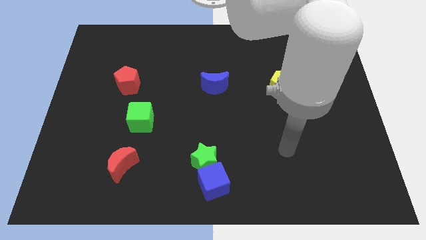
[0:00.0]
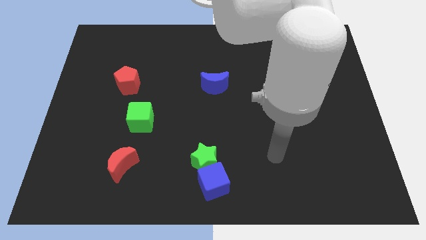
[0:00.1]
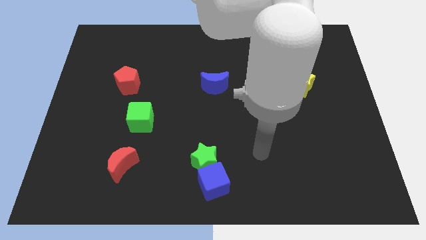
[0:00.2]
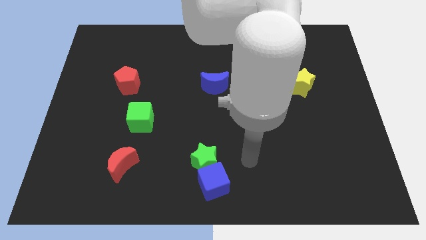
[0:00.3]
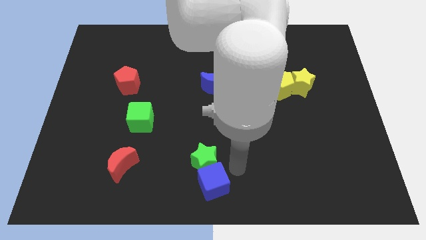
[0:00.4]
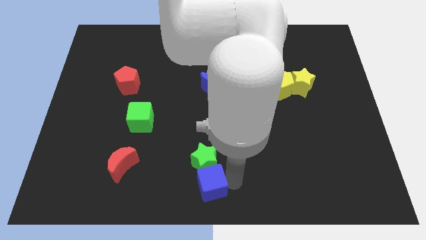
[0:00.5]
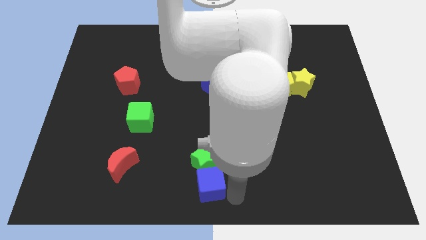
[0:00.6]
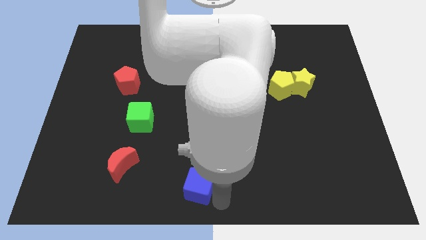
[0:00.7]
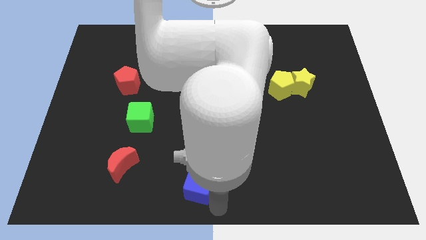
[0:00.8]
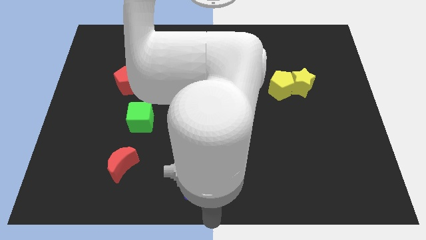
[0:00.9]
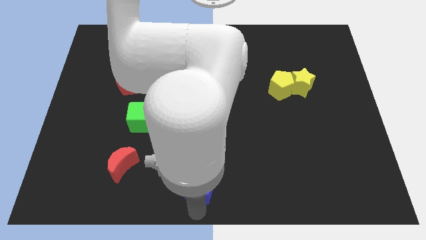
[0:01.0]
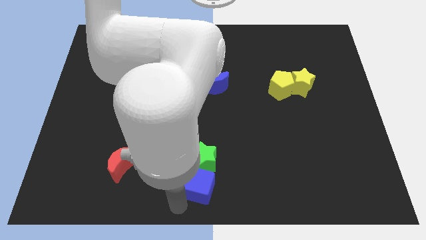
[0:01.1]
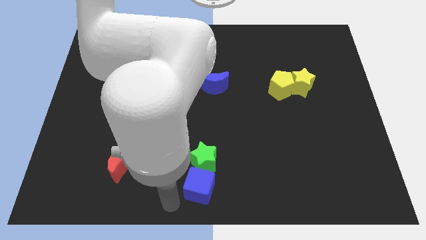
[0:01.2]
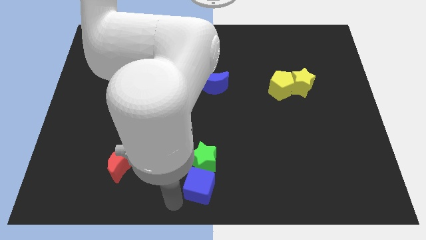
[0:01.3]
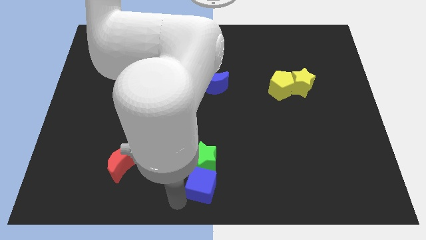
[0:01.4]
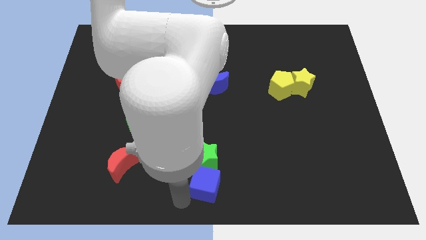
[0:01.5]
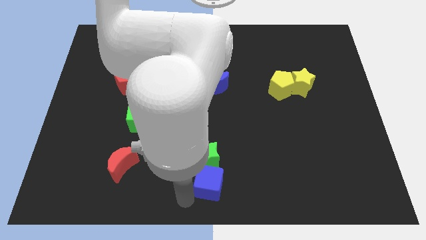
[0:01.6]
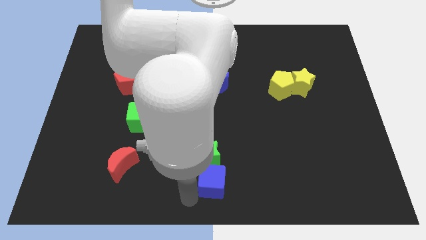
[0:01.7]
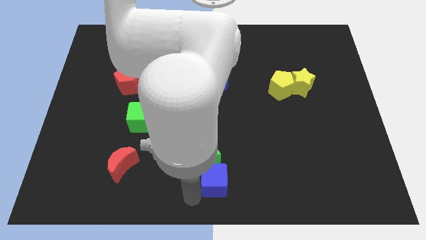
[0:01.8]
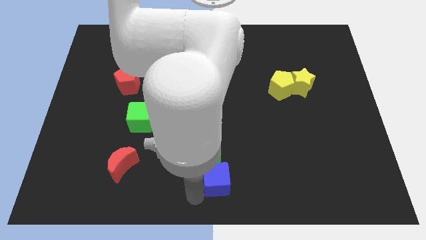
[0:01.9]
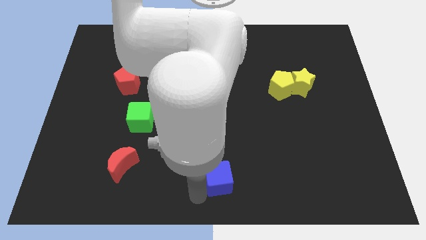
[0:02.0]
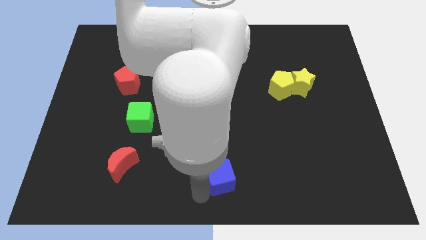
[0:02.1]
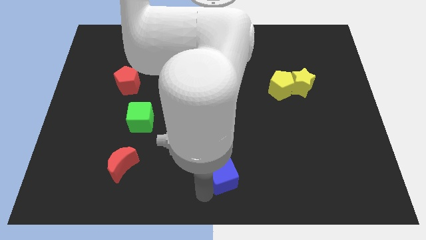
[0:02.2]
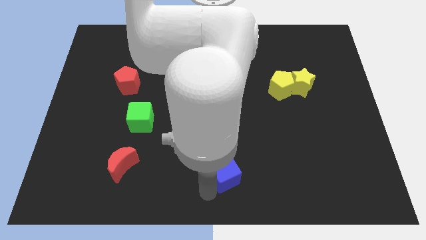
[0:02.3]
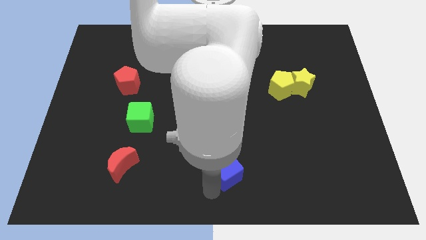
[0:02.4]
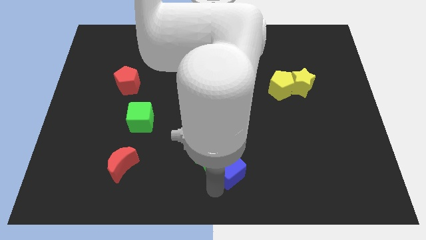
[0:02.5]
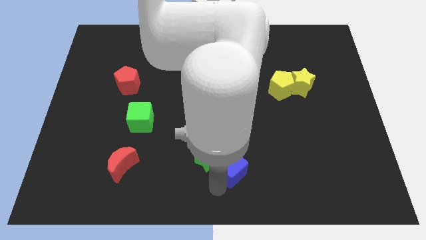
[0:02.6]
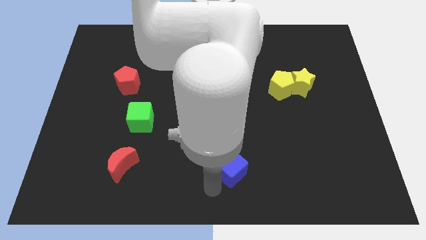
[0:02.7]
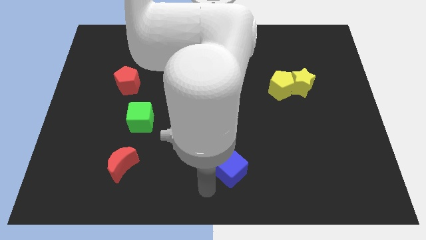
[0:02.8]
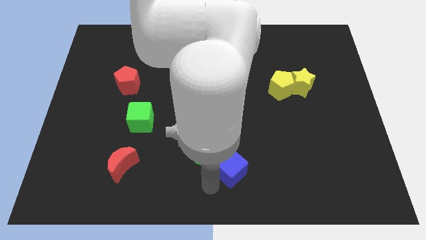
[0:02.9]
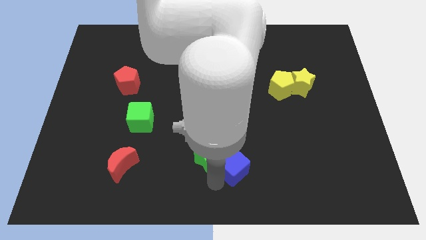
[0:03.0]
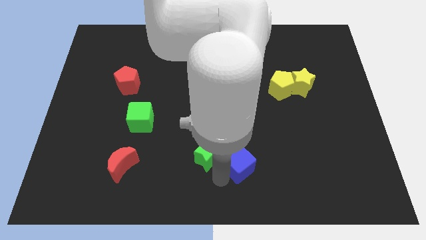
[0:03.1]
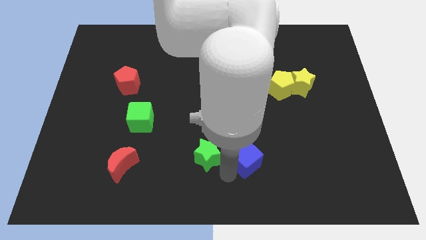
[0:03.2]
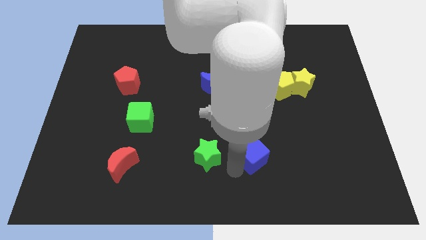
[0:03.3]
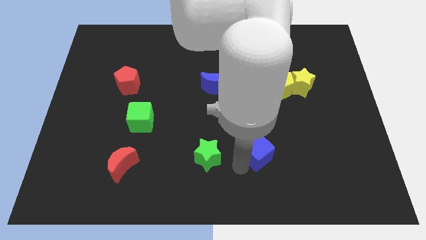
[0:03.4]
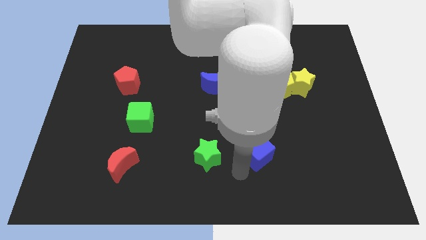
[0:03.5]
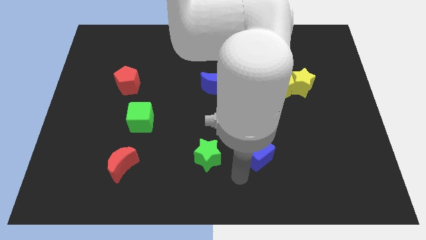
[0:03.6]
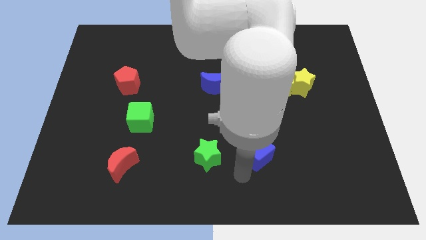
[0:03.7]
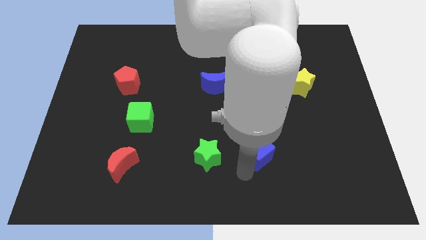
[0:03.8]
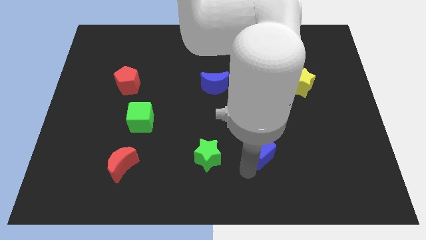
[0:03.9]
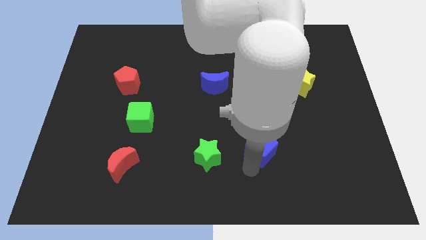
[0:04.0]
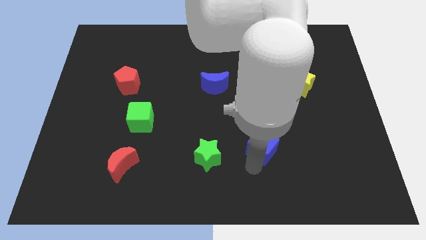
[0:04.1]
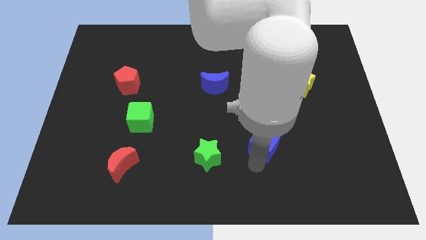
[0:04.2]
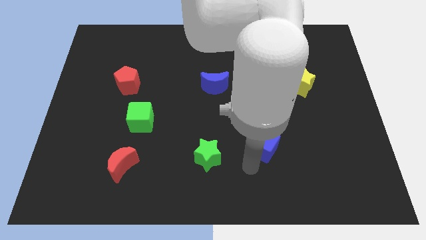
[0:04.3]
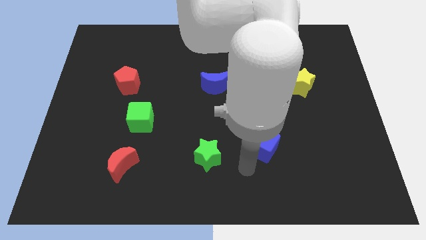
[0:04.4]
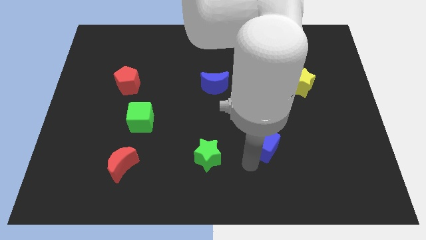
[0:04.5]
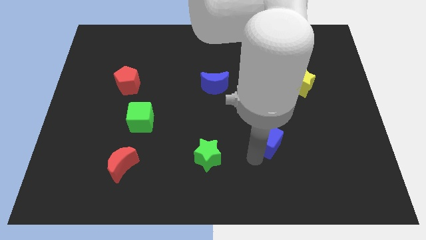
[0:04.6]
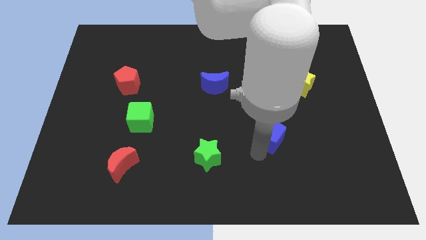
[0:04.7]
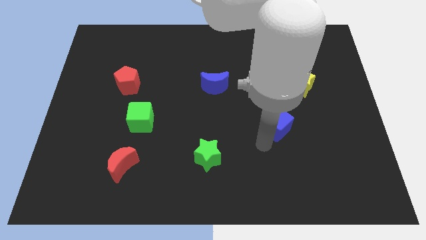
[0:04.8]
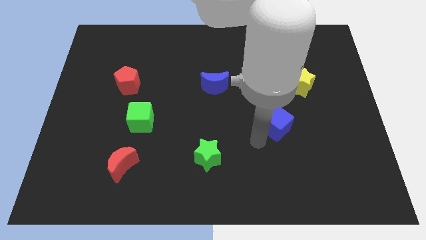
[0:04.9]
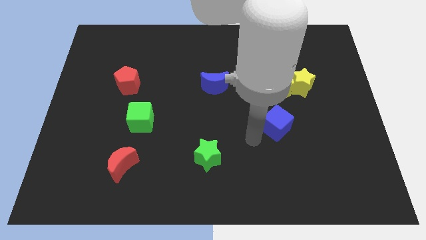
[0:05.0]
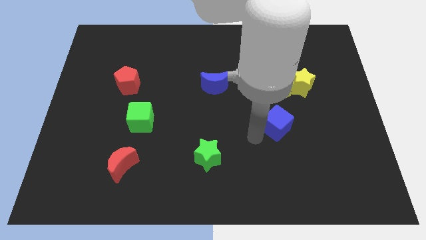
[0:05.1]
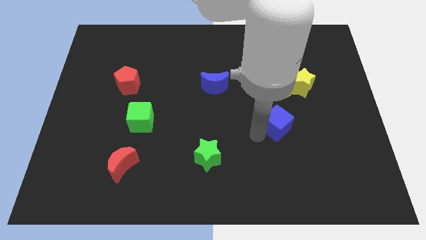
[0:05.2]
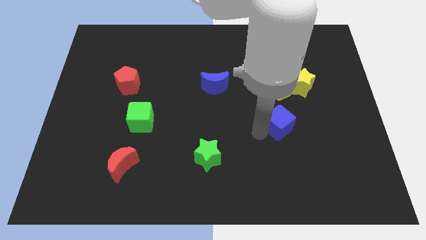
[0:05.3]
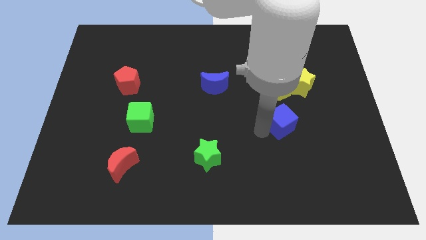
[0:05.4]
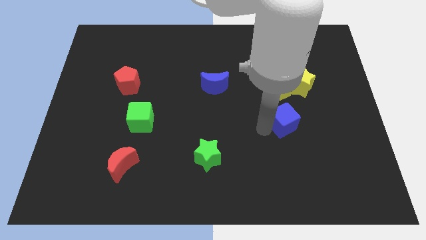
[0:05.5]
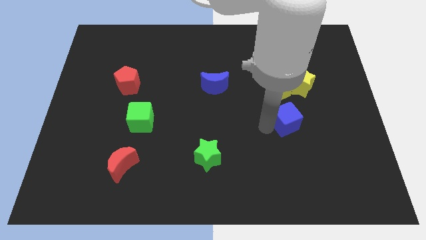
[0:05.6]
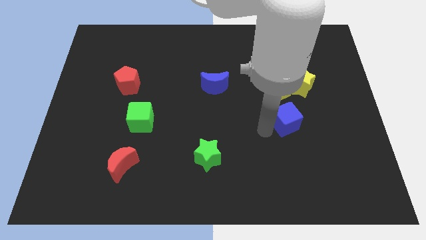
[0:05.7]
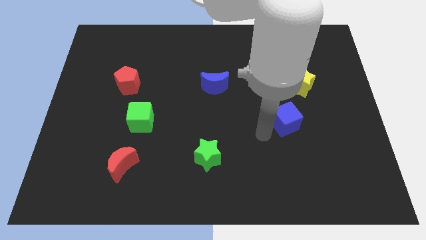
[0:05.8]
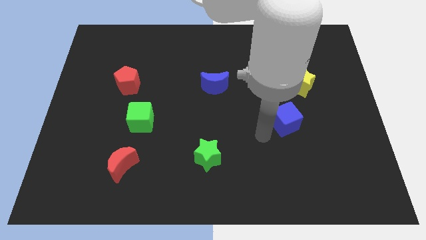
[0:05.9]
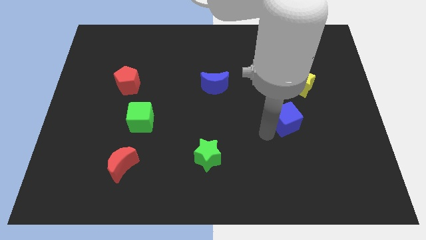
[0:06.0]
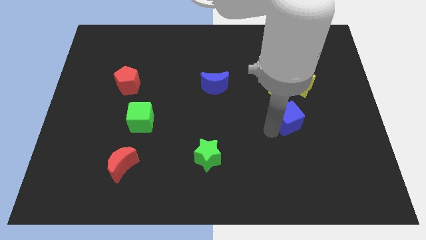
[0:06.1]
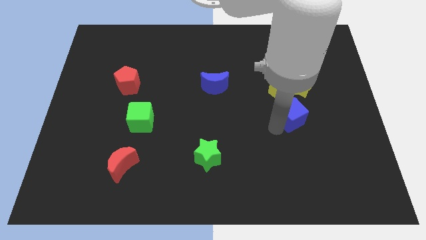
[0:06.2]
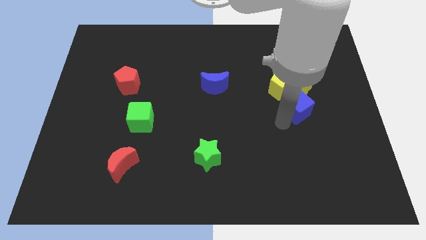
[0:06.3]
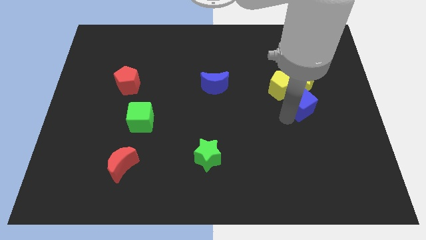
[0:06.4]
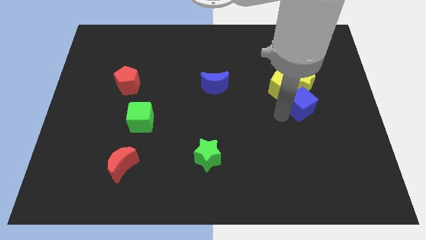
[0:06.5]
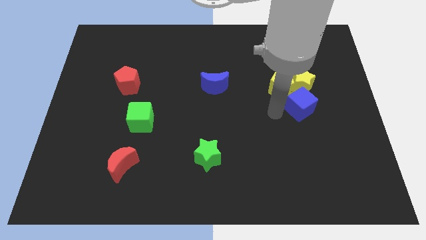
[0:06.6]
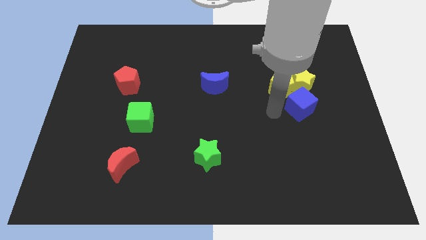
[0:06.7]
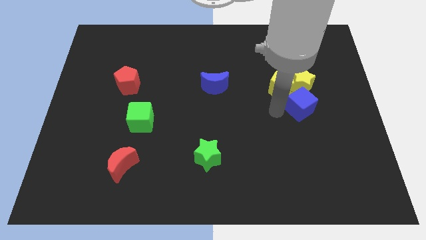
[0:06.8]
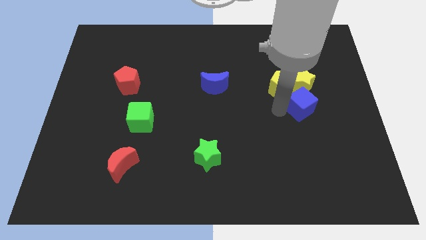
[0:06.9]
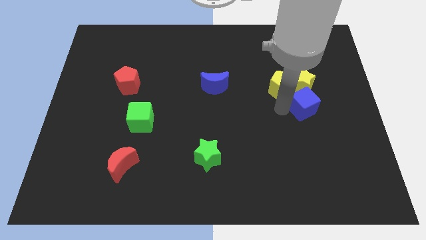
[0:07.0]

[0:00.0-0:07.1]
put the blue cube diagonally down and to the right of the yellow star
